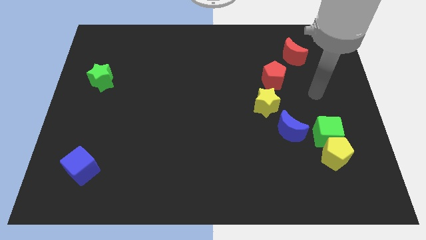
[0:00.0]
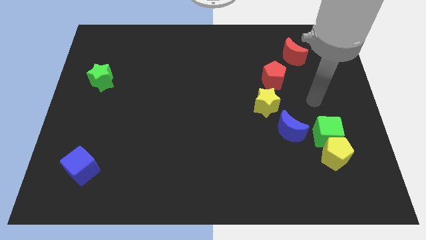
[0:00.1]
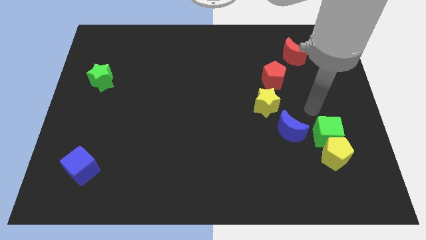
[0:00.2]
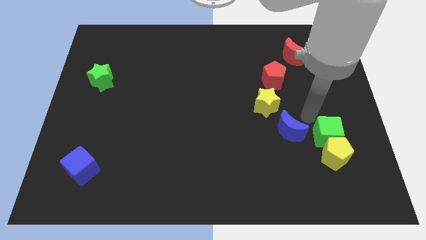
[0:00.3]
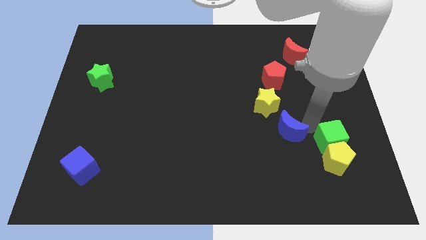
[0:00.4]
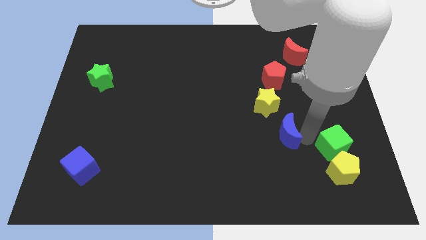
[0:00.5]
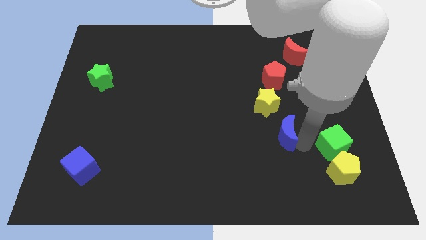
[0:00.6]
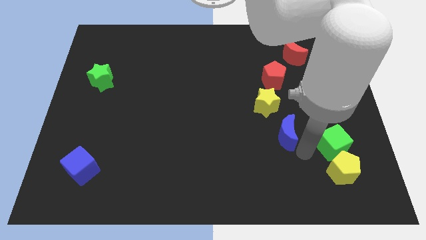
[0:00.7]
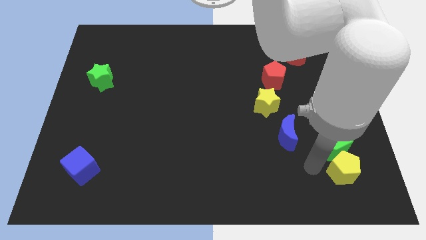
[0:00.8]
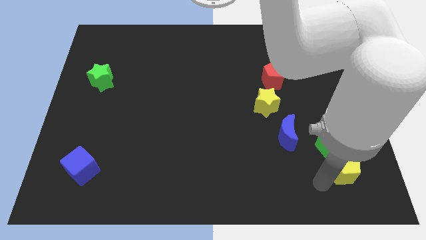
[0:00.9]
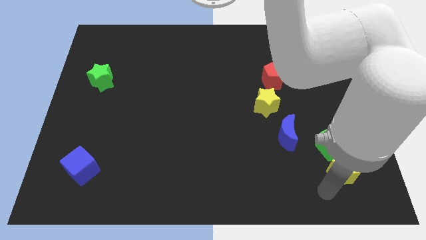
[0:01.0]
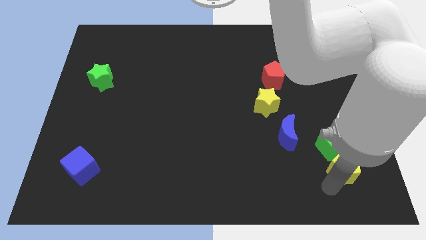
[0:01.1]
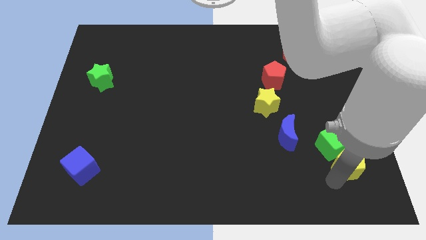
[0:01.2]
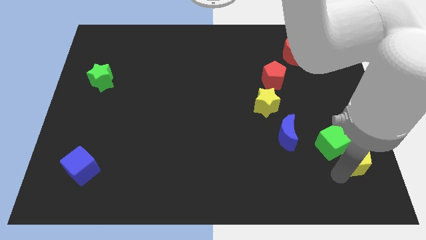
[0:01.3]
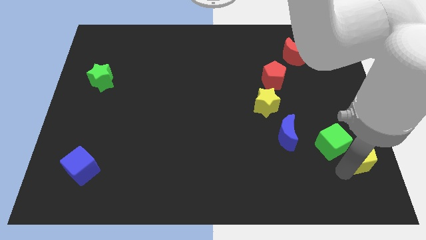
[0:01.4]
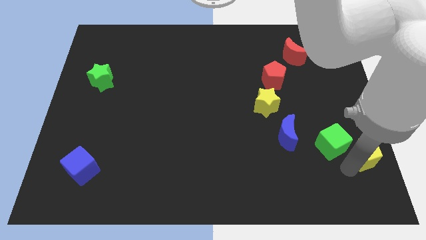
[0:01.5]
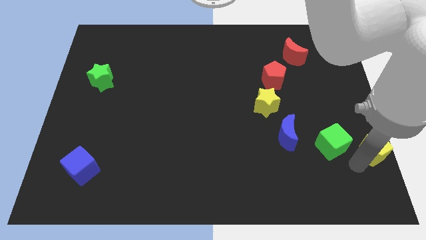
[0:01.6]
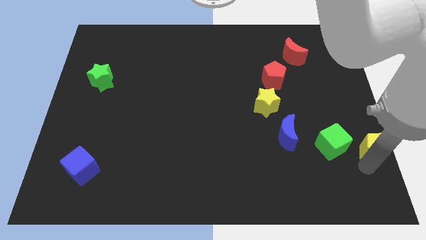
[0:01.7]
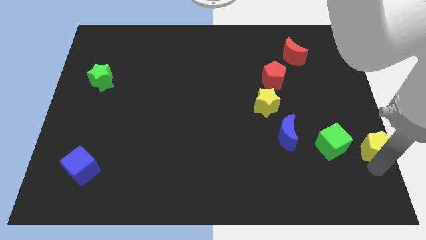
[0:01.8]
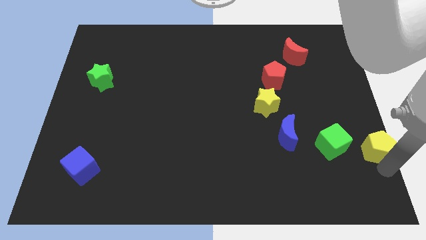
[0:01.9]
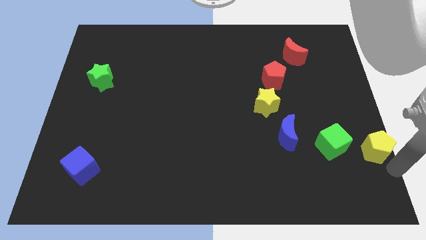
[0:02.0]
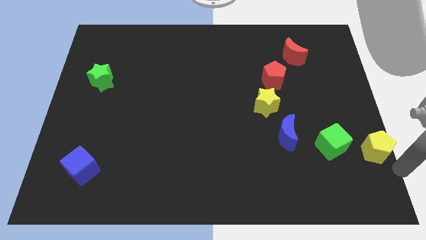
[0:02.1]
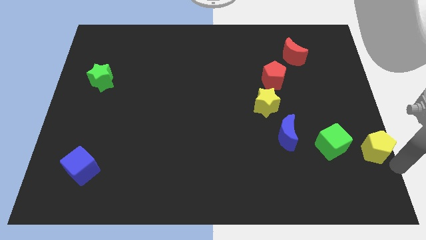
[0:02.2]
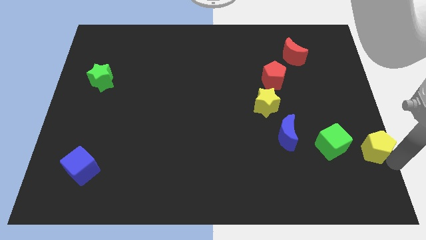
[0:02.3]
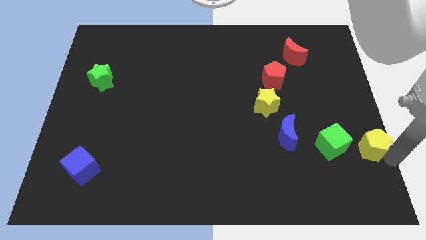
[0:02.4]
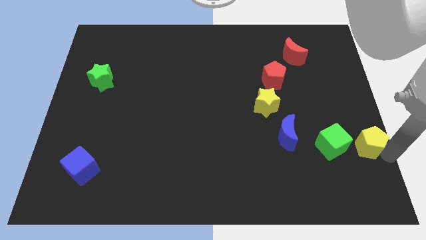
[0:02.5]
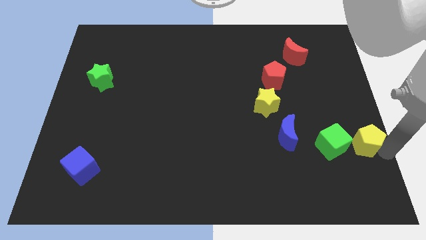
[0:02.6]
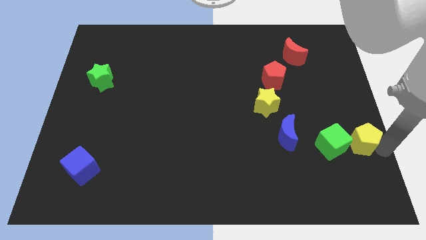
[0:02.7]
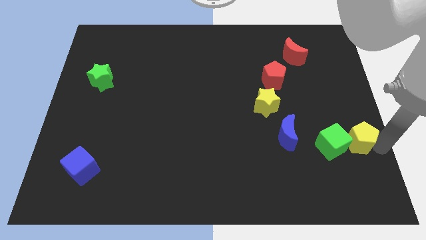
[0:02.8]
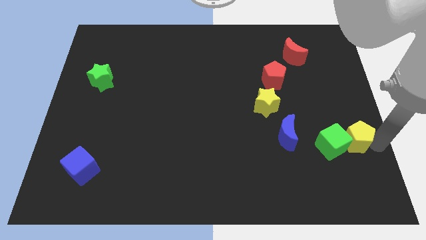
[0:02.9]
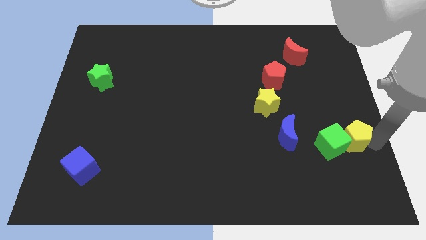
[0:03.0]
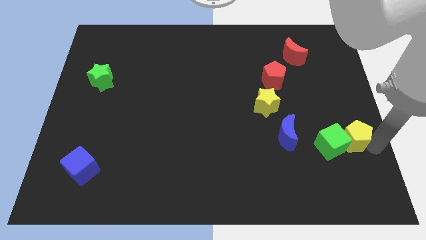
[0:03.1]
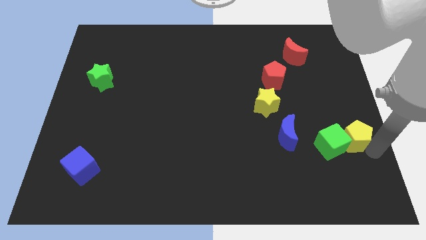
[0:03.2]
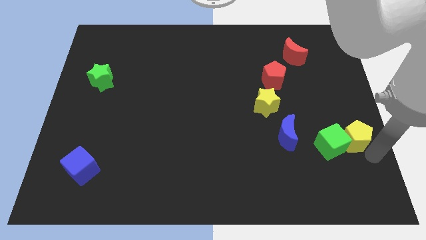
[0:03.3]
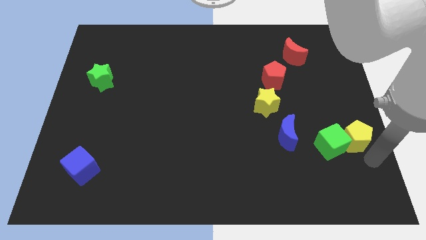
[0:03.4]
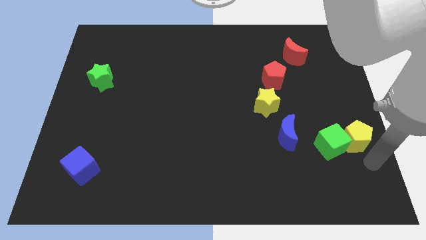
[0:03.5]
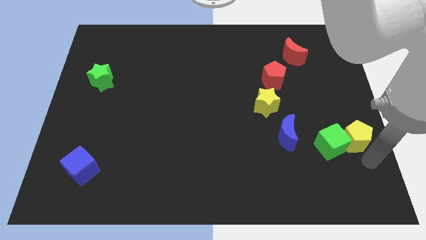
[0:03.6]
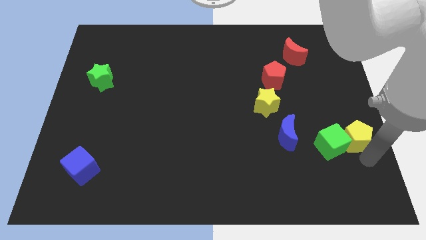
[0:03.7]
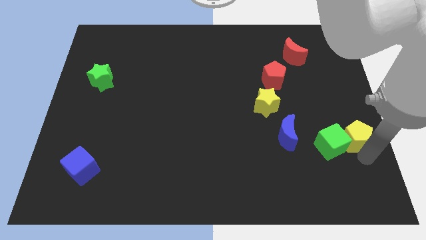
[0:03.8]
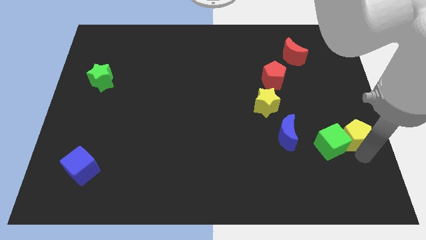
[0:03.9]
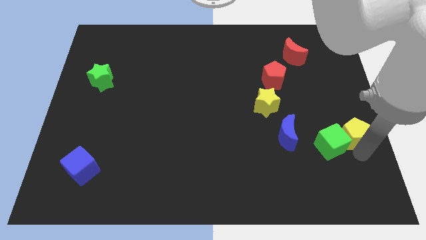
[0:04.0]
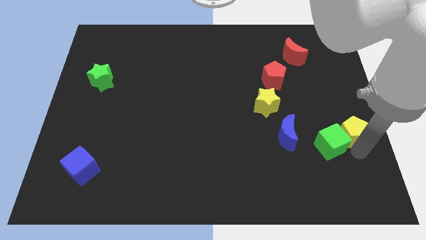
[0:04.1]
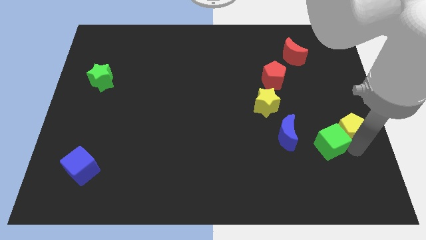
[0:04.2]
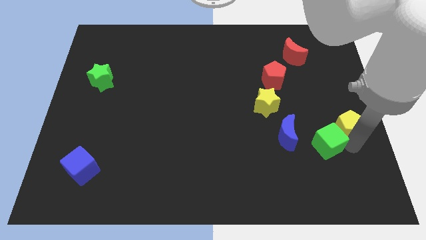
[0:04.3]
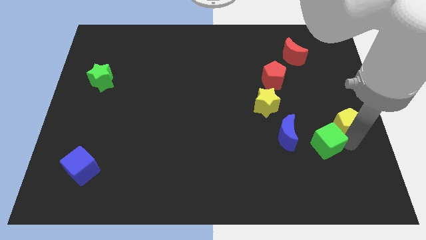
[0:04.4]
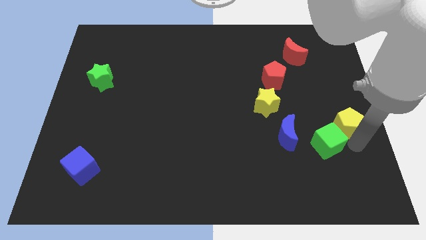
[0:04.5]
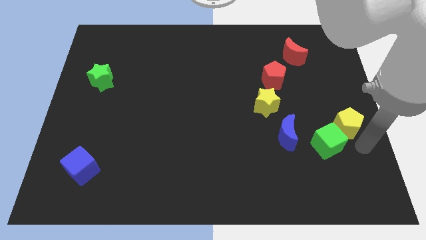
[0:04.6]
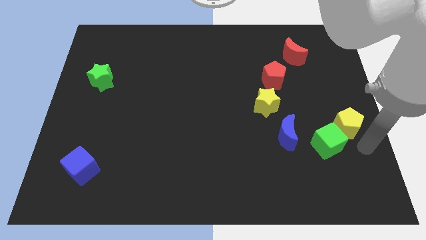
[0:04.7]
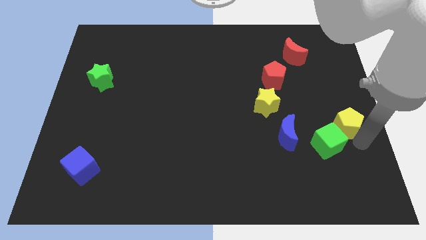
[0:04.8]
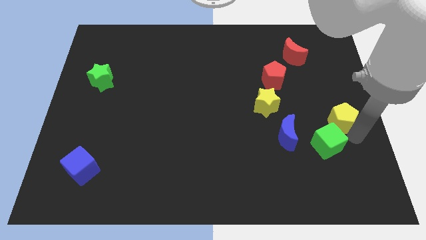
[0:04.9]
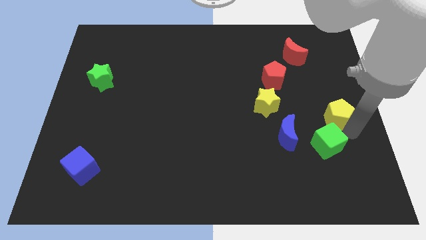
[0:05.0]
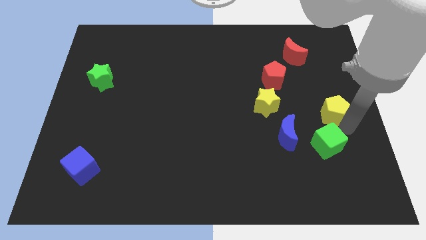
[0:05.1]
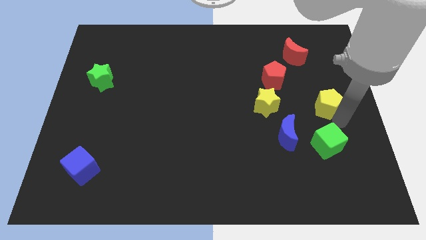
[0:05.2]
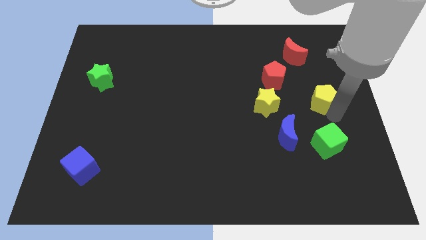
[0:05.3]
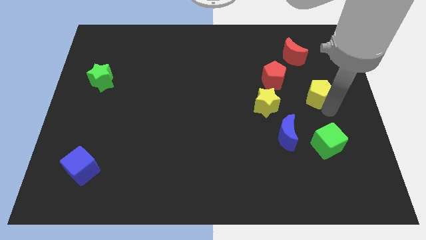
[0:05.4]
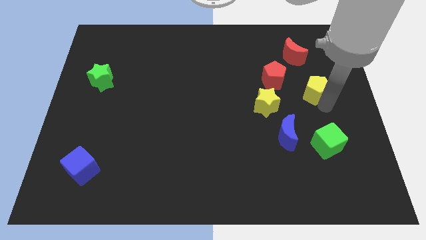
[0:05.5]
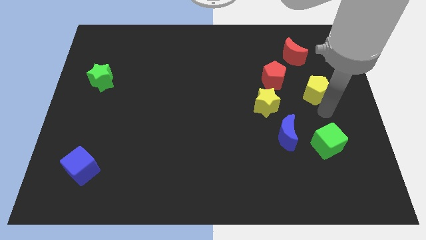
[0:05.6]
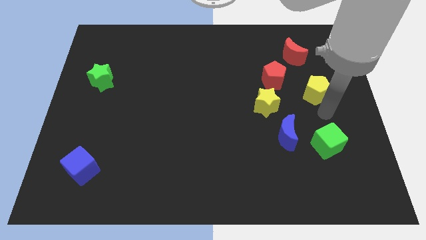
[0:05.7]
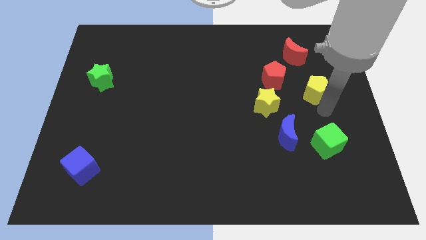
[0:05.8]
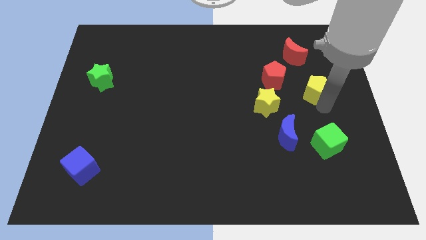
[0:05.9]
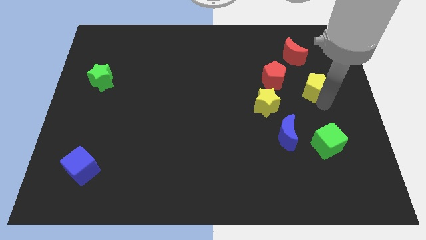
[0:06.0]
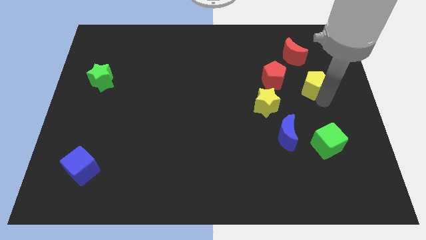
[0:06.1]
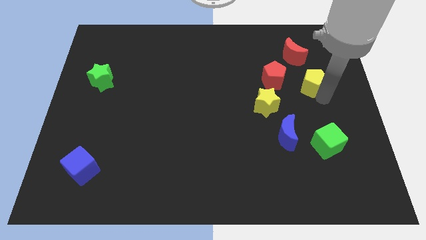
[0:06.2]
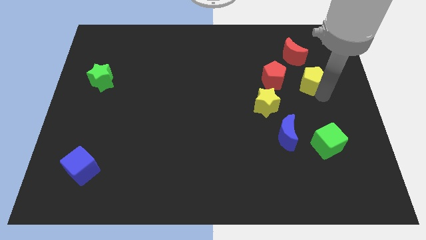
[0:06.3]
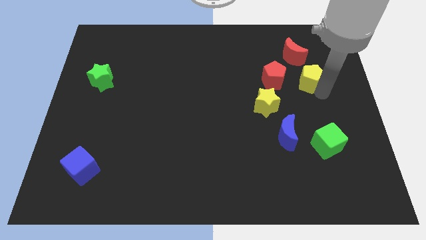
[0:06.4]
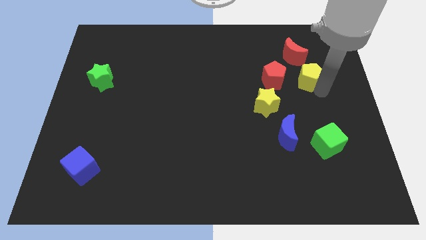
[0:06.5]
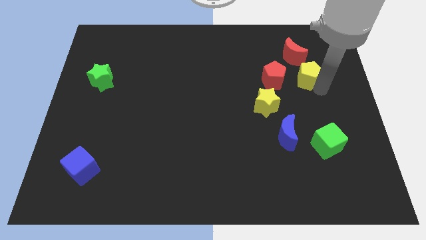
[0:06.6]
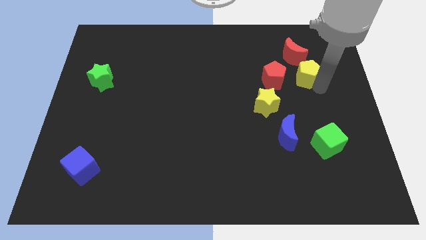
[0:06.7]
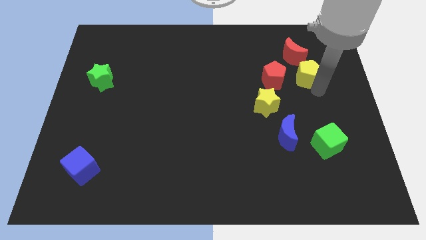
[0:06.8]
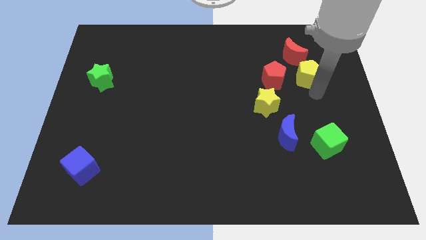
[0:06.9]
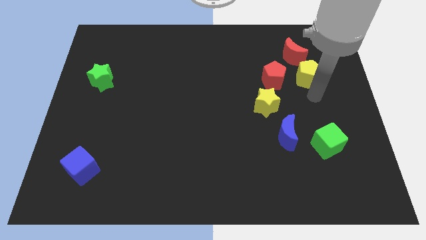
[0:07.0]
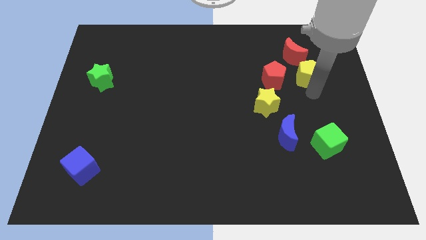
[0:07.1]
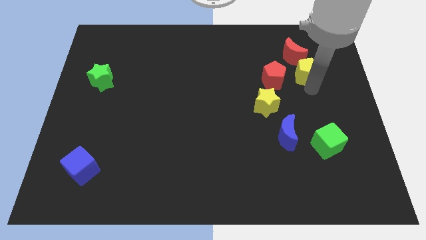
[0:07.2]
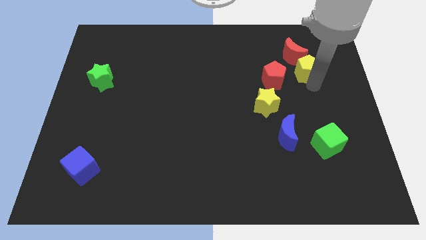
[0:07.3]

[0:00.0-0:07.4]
push the yellow pentagon close to the red moon

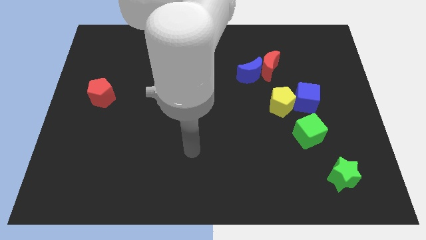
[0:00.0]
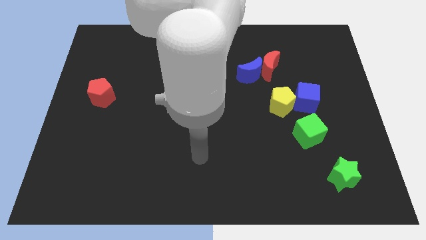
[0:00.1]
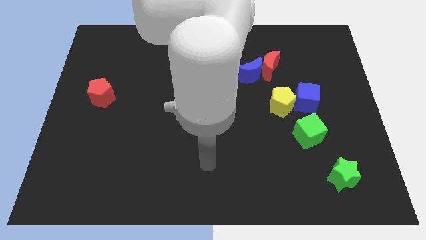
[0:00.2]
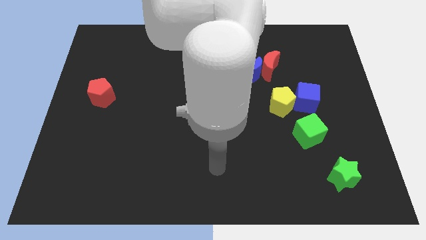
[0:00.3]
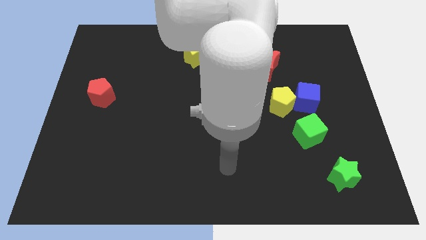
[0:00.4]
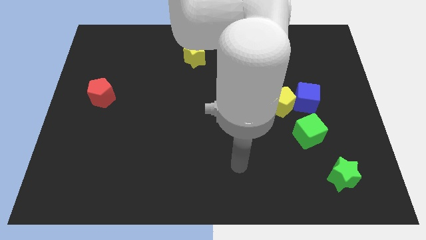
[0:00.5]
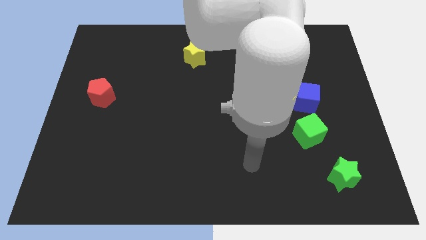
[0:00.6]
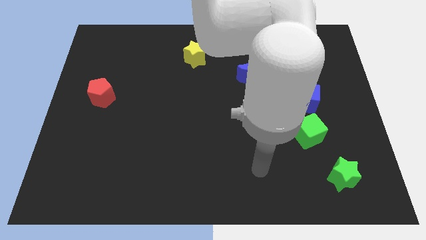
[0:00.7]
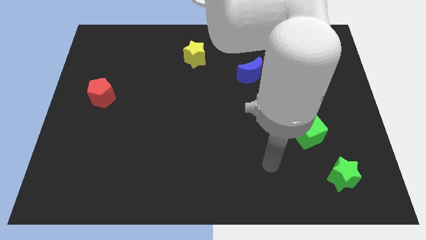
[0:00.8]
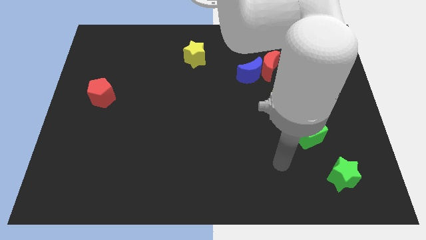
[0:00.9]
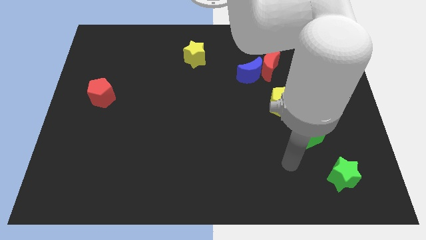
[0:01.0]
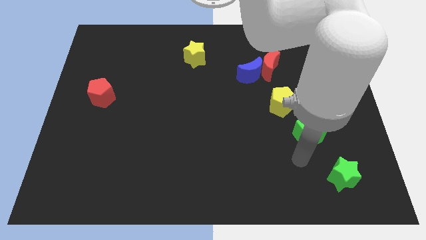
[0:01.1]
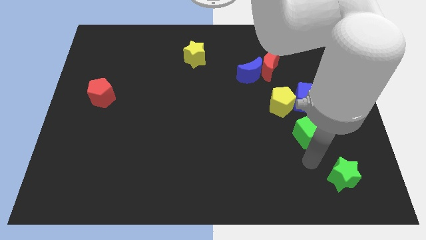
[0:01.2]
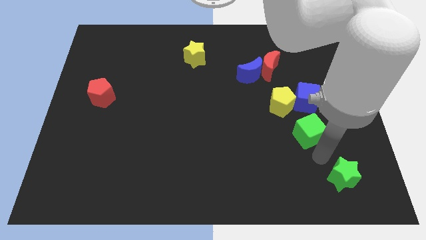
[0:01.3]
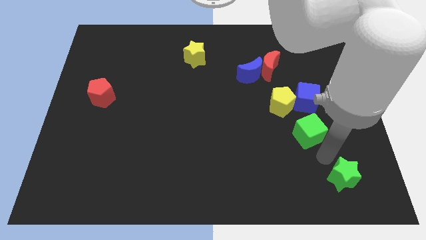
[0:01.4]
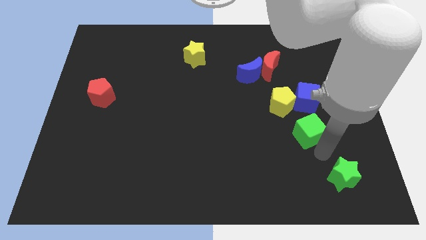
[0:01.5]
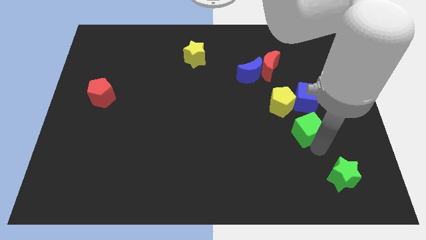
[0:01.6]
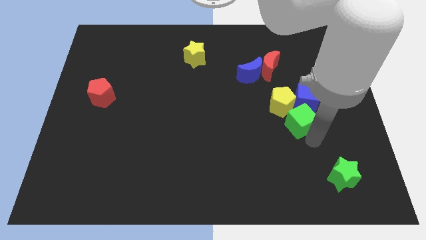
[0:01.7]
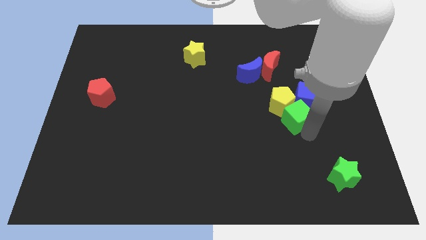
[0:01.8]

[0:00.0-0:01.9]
put the green cube to the yellow pentagon
